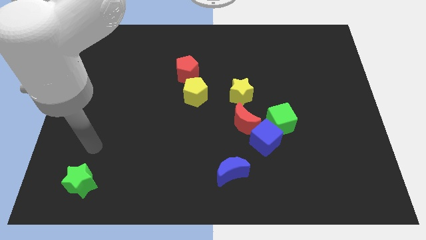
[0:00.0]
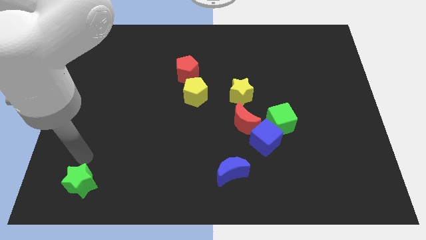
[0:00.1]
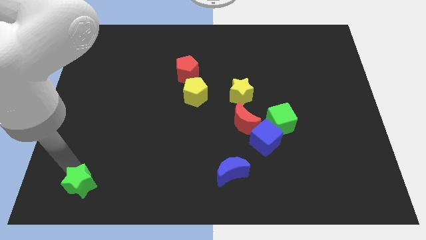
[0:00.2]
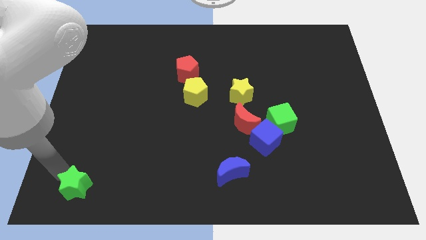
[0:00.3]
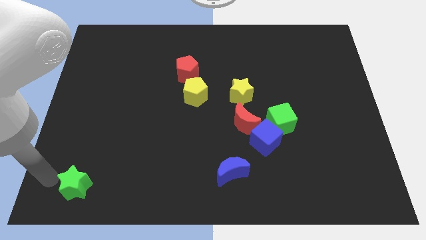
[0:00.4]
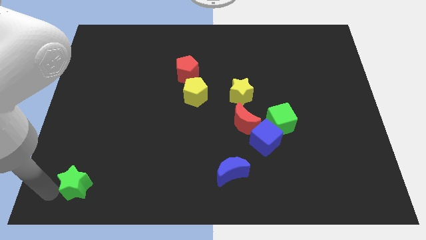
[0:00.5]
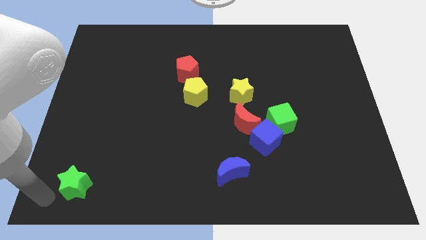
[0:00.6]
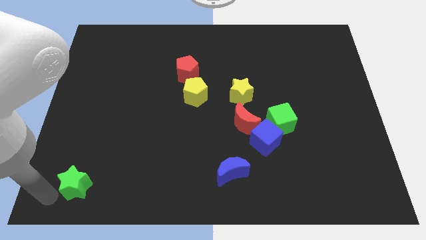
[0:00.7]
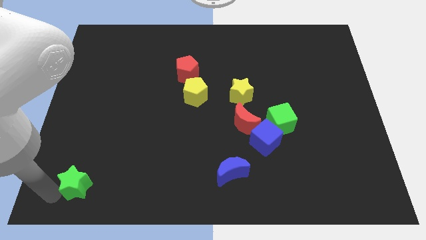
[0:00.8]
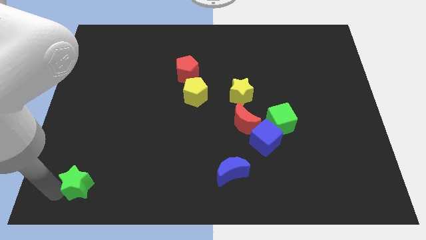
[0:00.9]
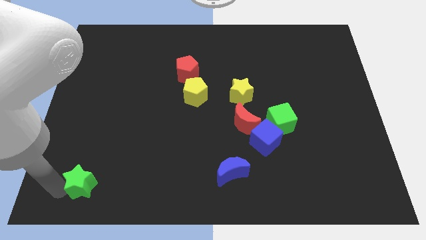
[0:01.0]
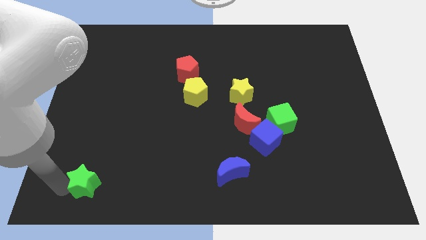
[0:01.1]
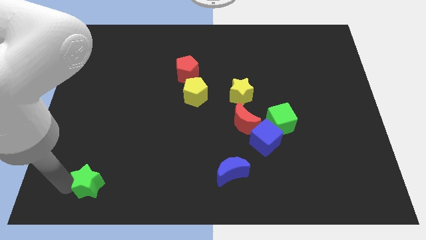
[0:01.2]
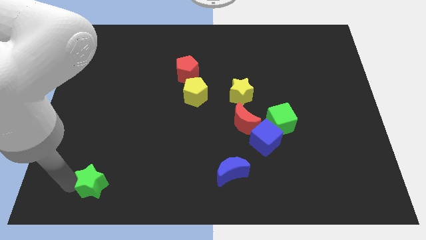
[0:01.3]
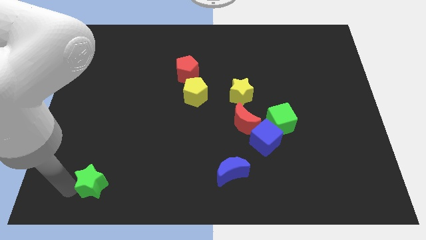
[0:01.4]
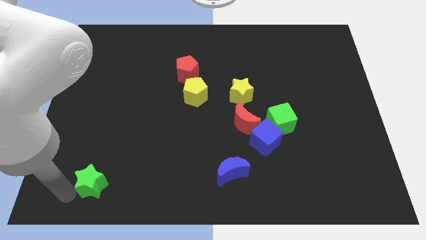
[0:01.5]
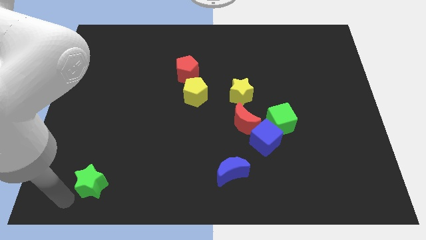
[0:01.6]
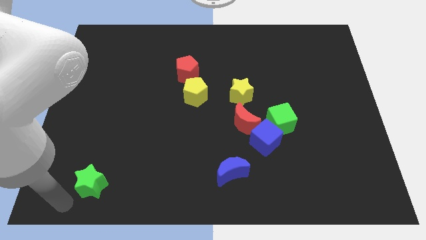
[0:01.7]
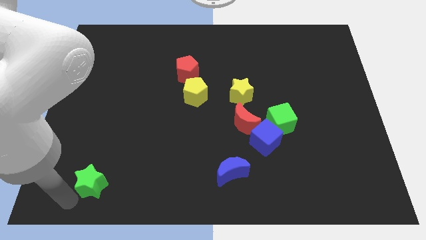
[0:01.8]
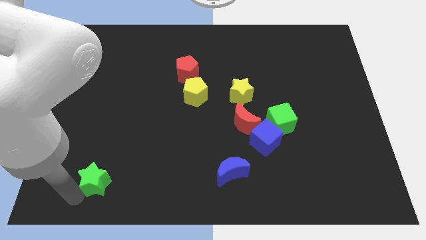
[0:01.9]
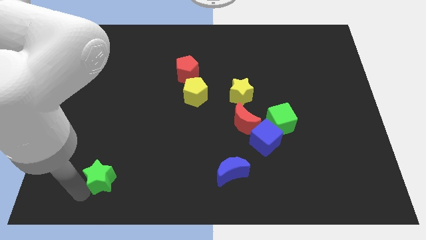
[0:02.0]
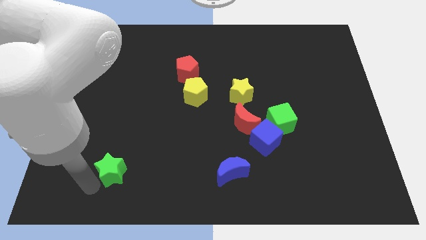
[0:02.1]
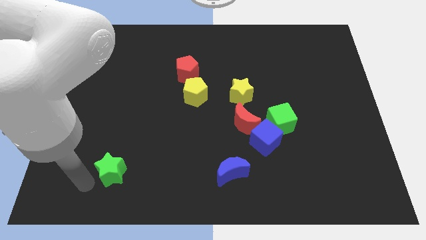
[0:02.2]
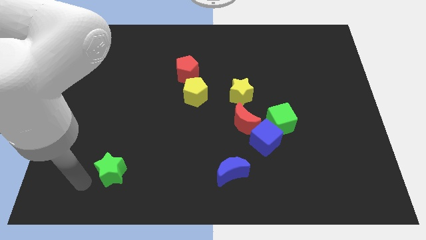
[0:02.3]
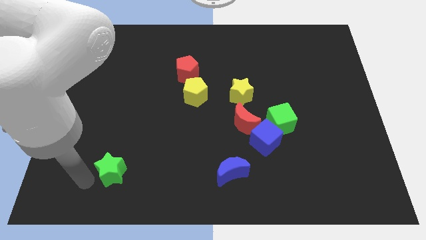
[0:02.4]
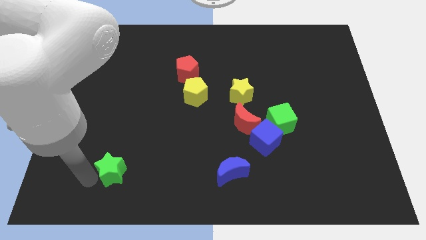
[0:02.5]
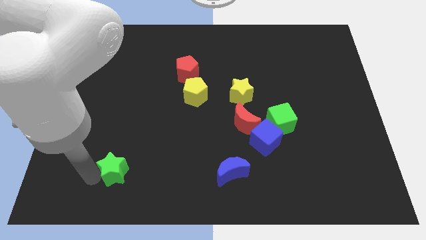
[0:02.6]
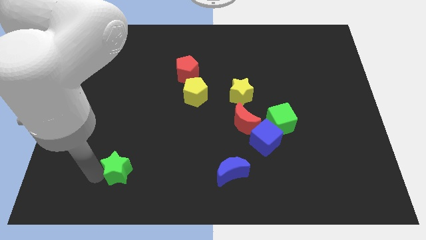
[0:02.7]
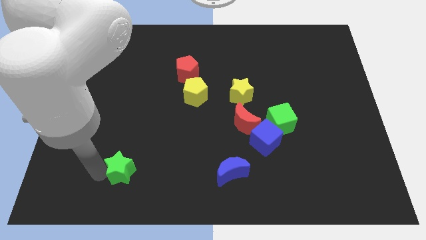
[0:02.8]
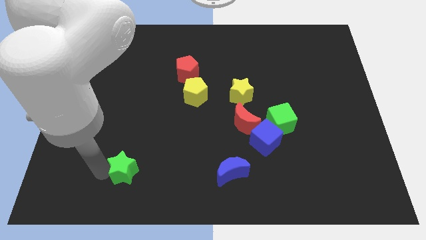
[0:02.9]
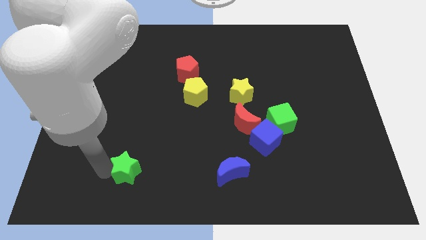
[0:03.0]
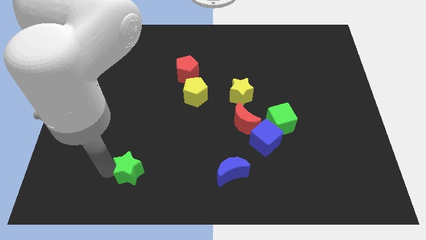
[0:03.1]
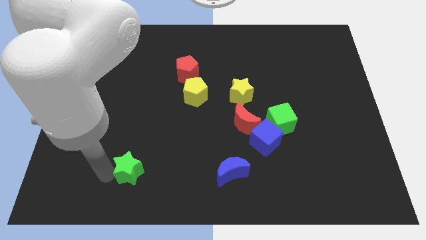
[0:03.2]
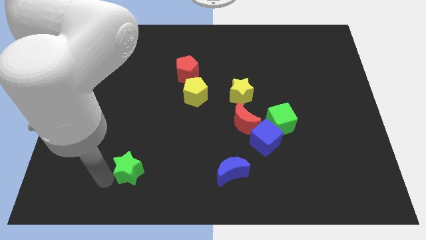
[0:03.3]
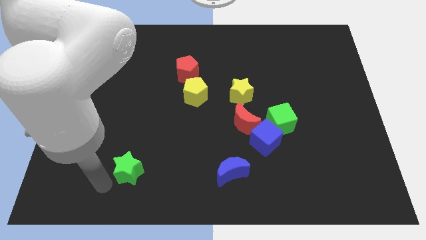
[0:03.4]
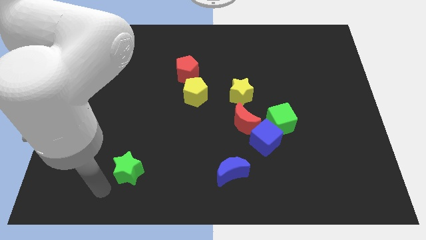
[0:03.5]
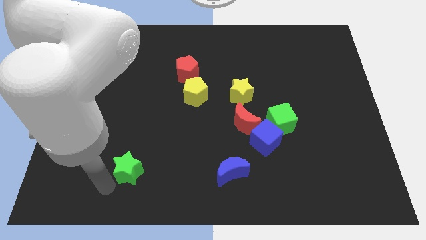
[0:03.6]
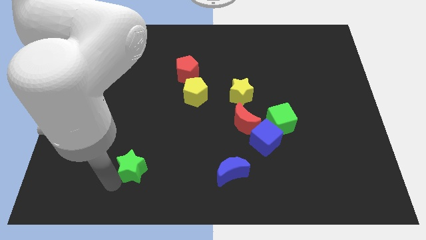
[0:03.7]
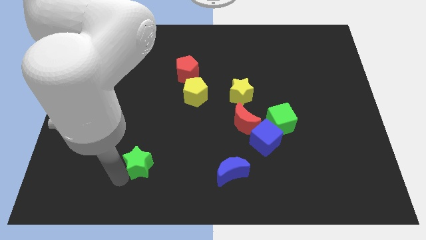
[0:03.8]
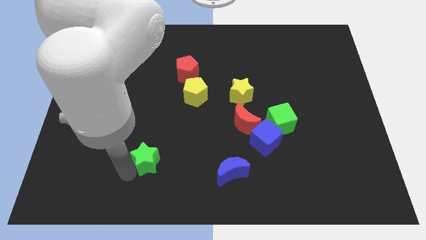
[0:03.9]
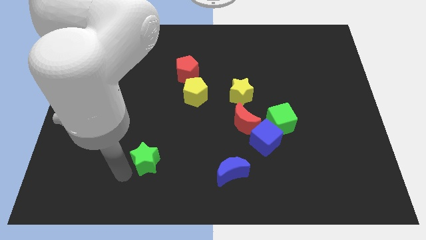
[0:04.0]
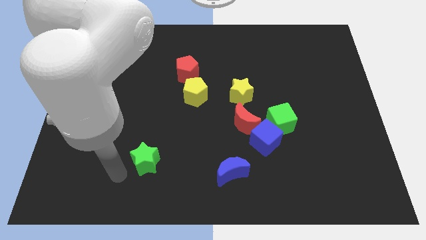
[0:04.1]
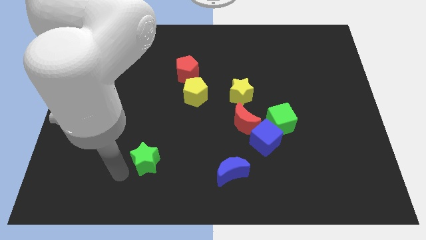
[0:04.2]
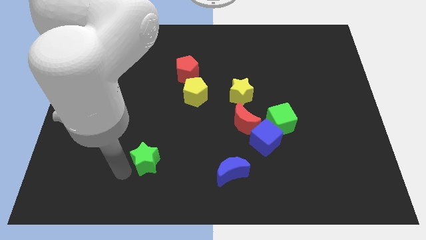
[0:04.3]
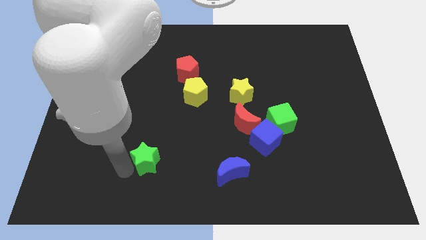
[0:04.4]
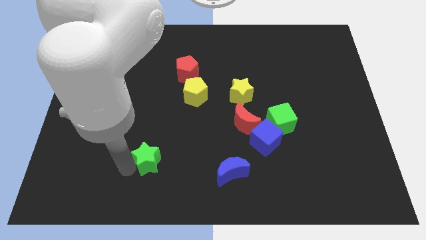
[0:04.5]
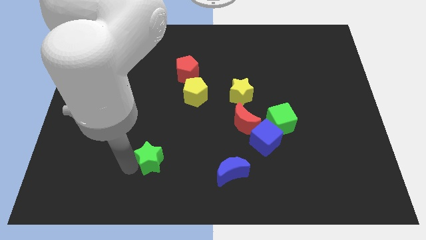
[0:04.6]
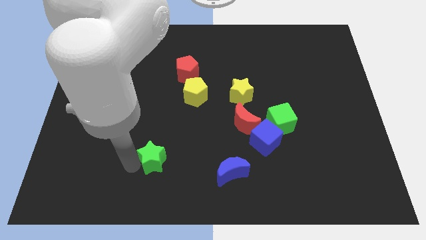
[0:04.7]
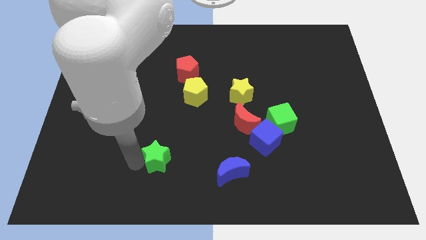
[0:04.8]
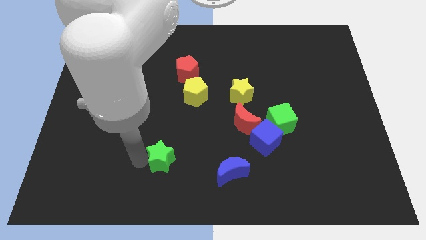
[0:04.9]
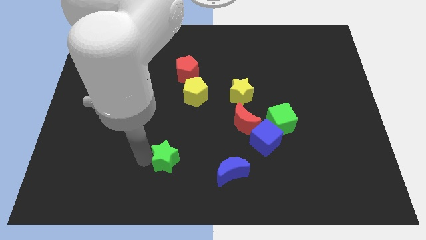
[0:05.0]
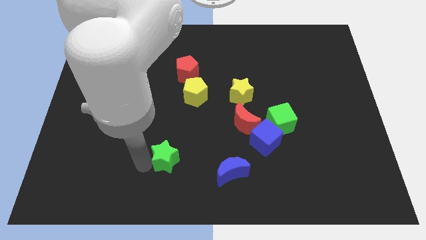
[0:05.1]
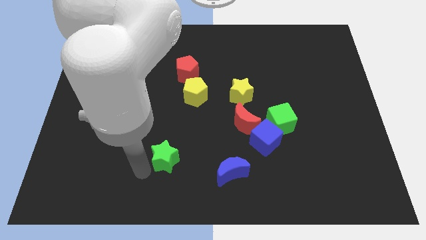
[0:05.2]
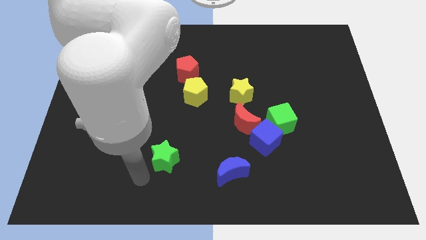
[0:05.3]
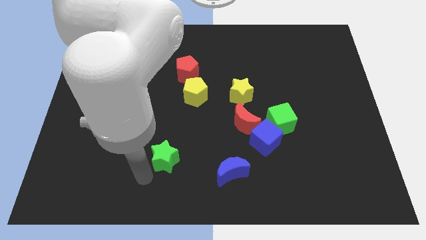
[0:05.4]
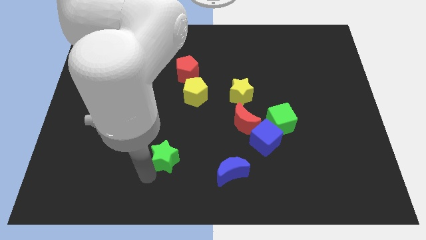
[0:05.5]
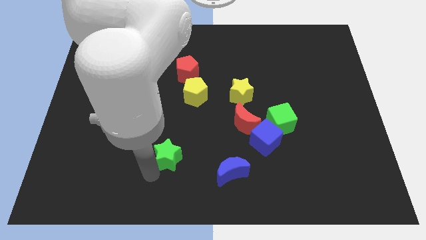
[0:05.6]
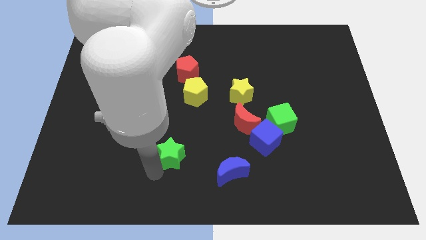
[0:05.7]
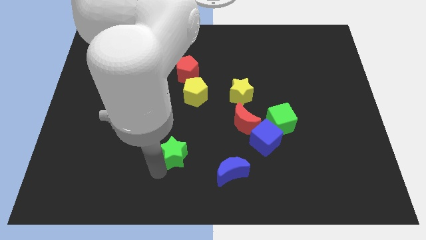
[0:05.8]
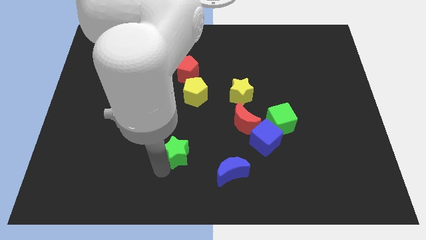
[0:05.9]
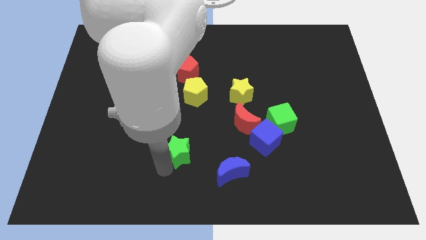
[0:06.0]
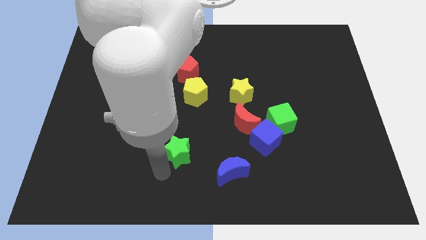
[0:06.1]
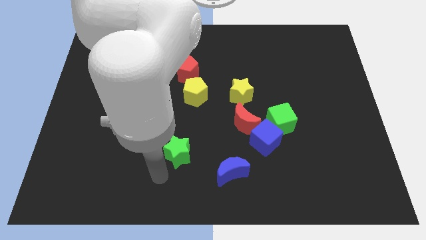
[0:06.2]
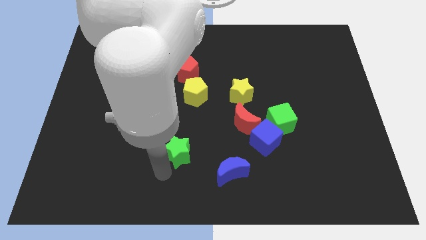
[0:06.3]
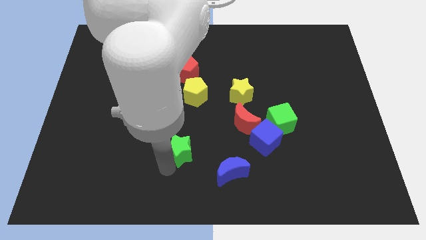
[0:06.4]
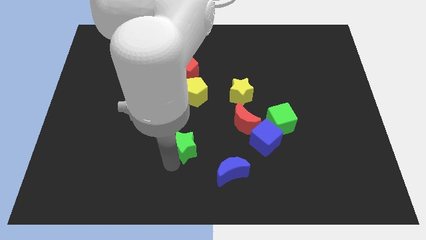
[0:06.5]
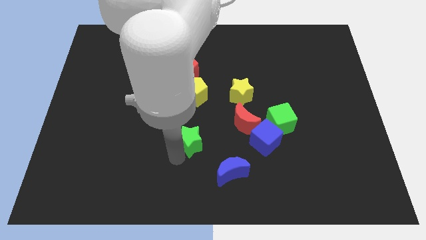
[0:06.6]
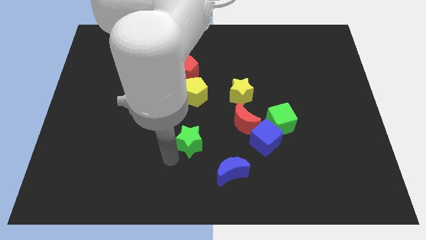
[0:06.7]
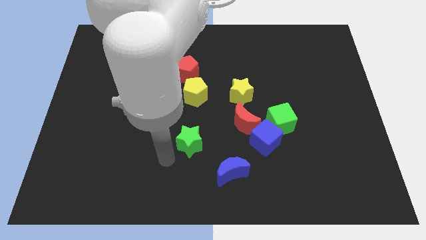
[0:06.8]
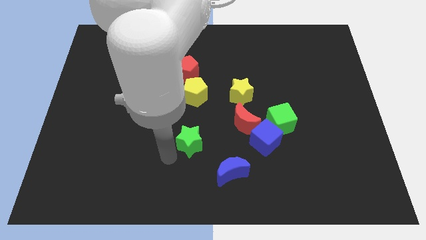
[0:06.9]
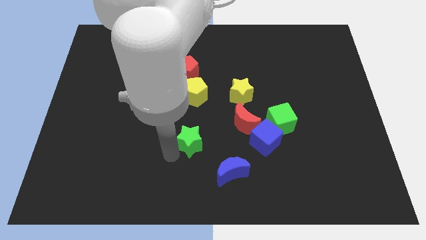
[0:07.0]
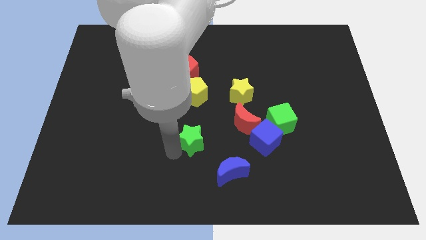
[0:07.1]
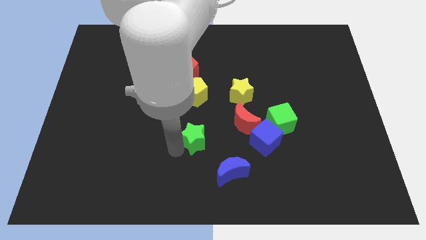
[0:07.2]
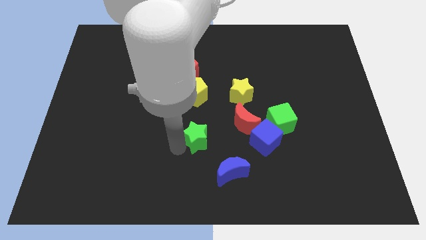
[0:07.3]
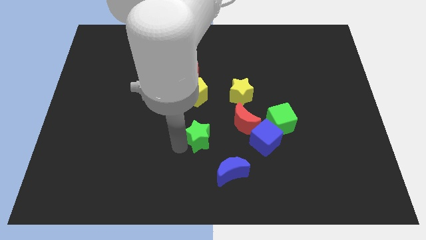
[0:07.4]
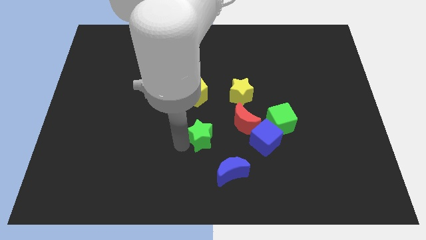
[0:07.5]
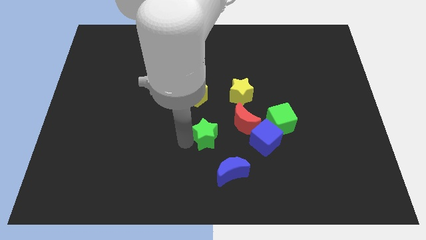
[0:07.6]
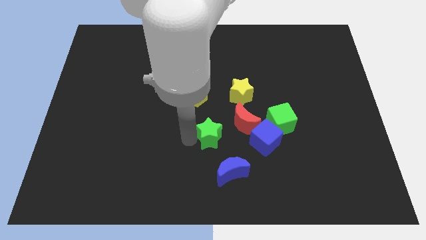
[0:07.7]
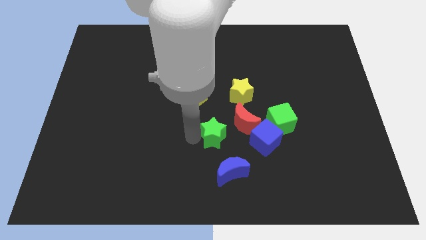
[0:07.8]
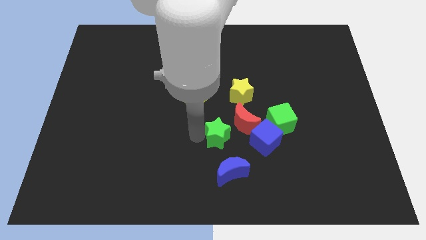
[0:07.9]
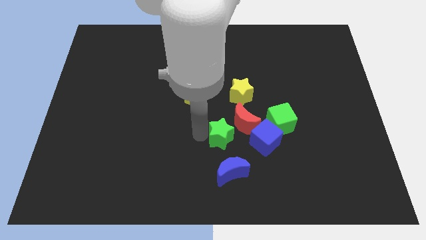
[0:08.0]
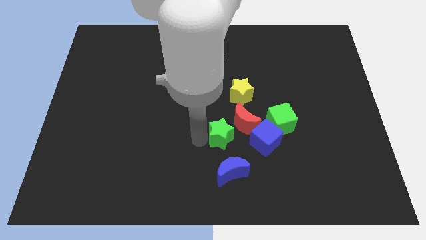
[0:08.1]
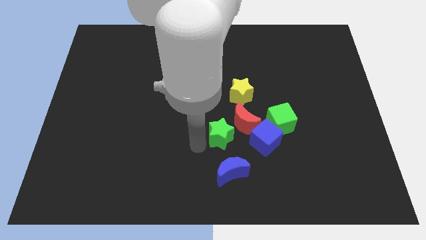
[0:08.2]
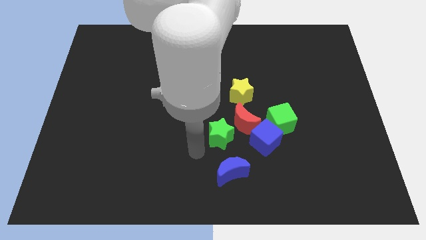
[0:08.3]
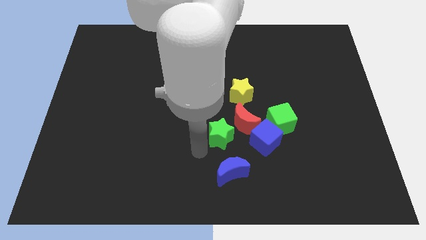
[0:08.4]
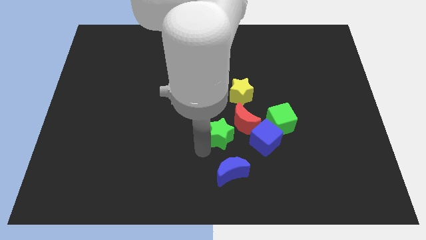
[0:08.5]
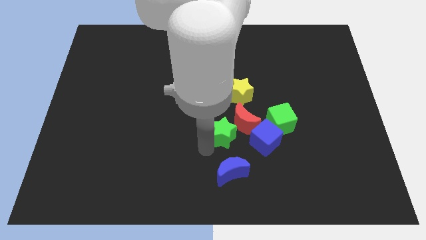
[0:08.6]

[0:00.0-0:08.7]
put the green star to the red moon
